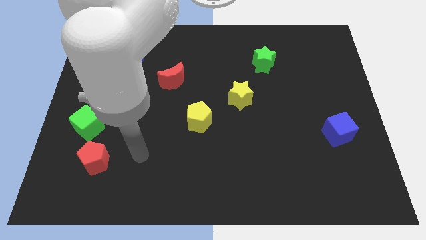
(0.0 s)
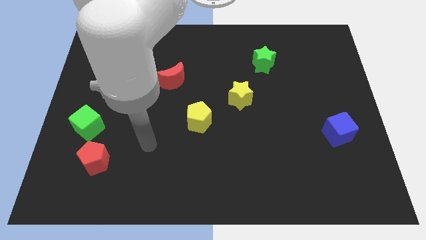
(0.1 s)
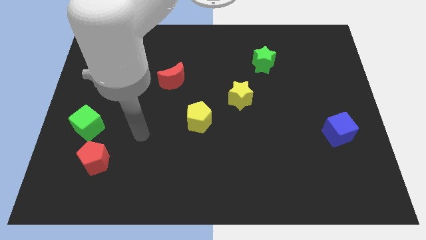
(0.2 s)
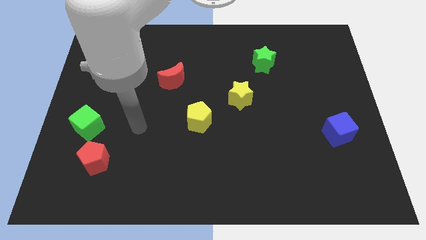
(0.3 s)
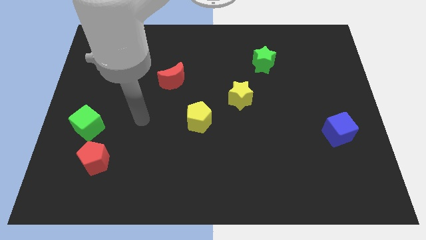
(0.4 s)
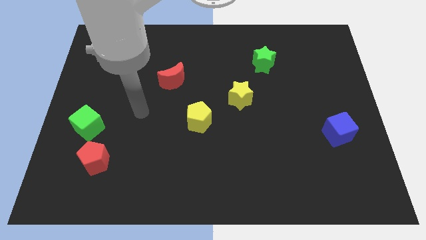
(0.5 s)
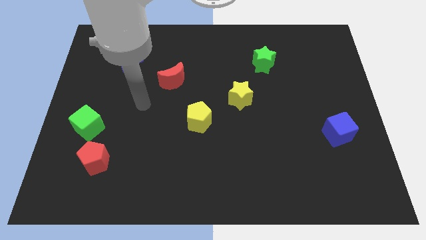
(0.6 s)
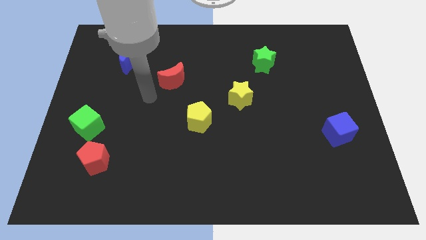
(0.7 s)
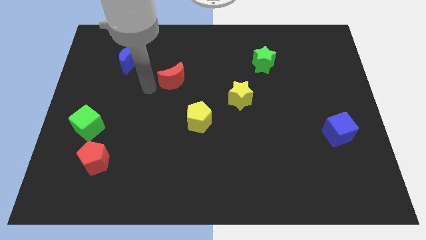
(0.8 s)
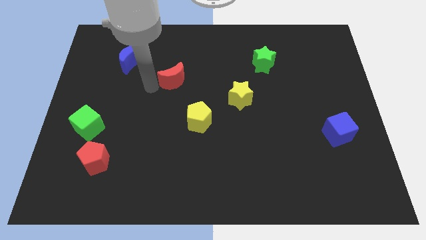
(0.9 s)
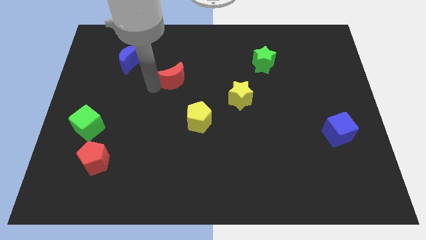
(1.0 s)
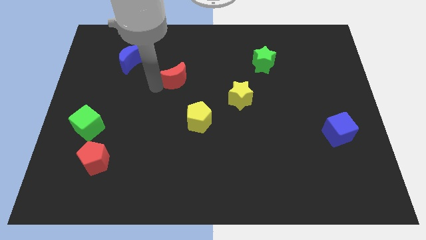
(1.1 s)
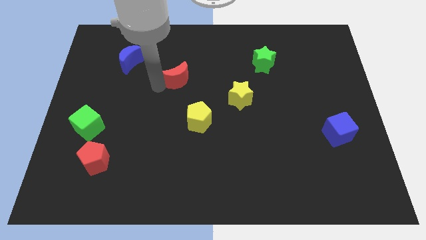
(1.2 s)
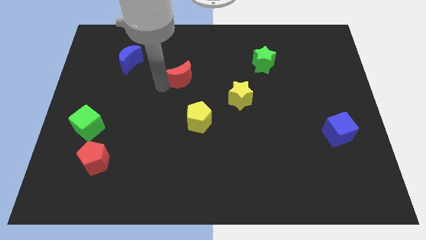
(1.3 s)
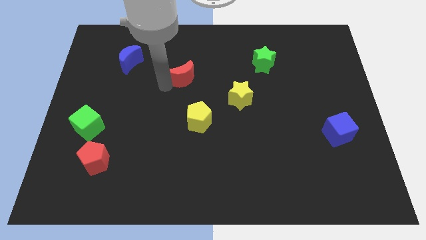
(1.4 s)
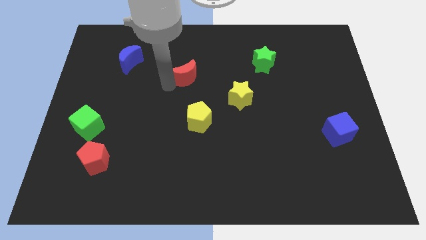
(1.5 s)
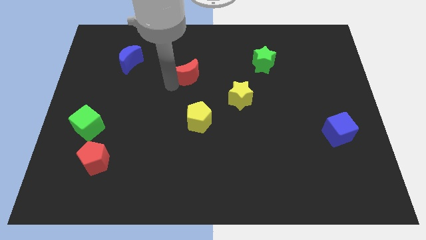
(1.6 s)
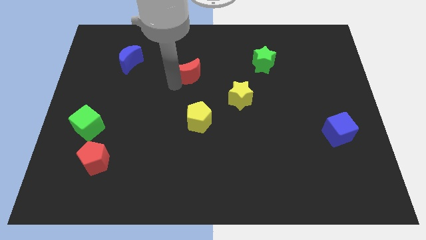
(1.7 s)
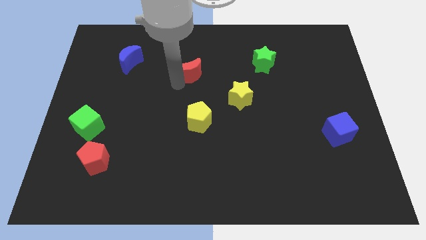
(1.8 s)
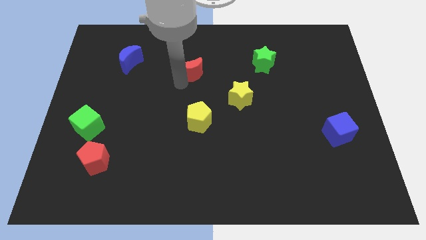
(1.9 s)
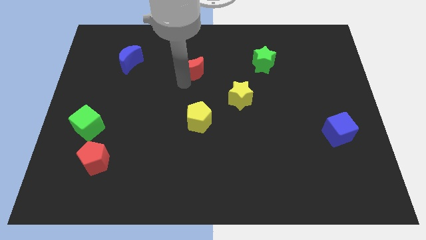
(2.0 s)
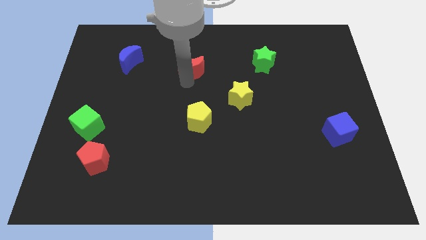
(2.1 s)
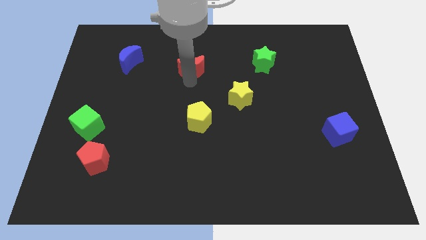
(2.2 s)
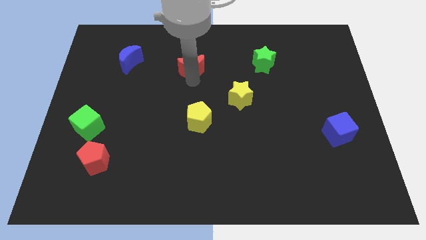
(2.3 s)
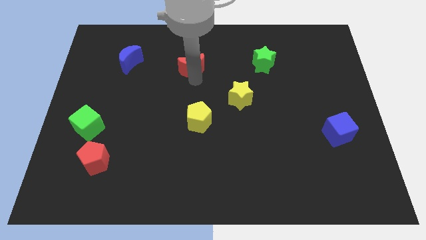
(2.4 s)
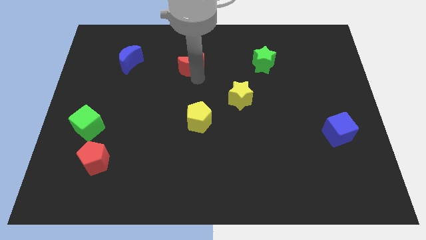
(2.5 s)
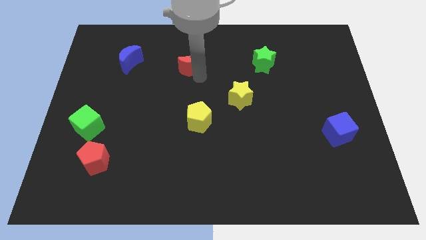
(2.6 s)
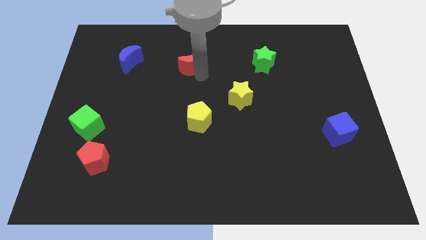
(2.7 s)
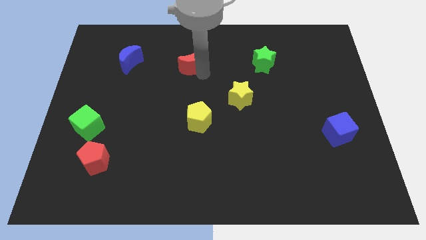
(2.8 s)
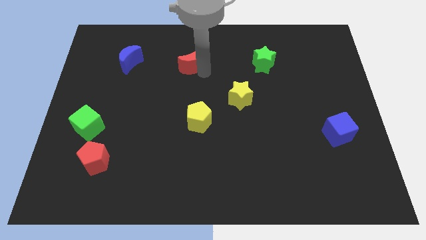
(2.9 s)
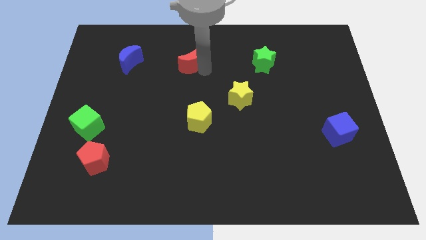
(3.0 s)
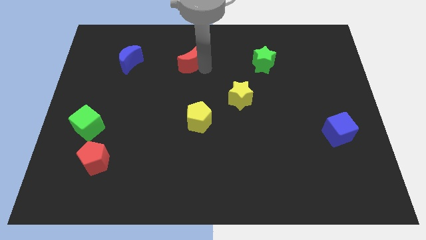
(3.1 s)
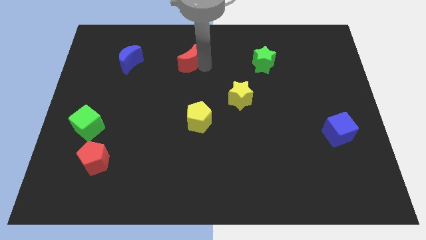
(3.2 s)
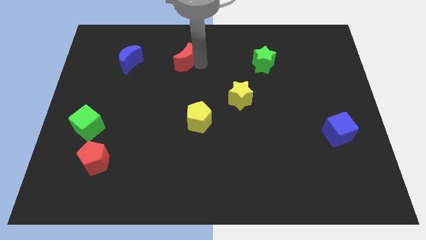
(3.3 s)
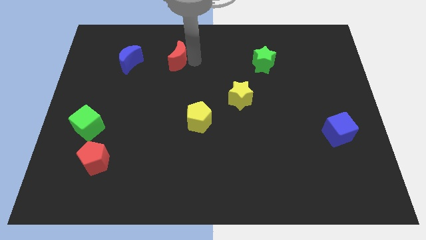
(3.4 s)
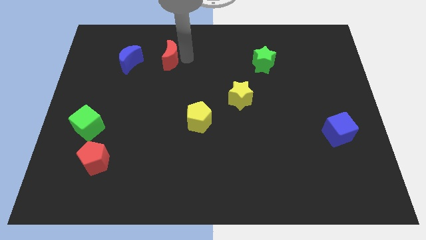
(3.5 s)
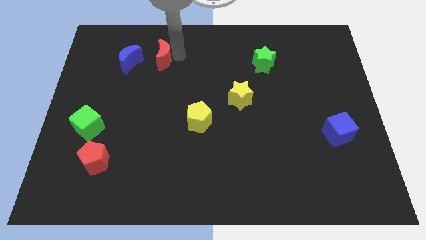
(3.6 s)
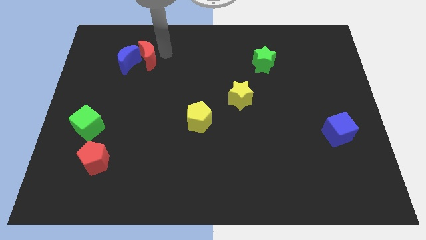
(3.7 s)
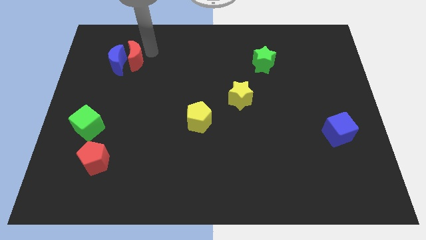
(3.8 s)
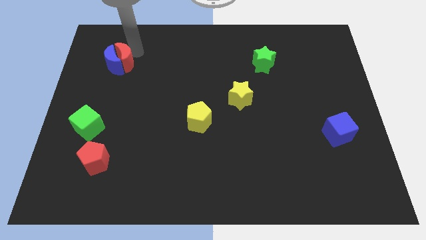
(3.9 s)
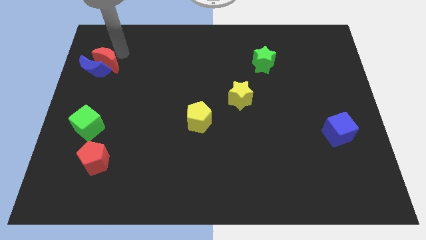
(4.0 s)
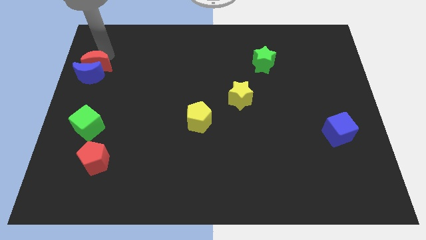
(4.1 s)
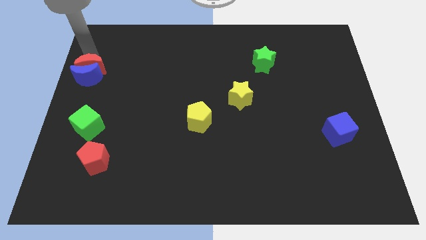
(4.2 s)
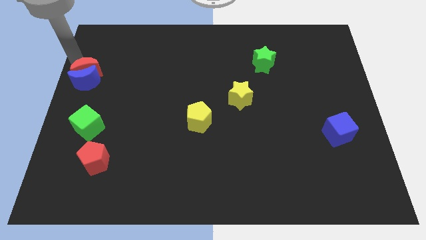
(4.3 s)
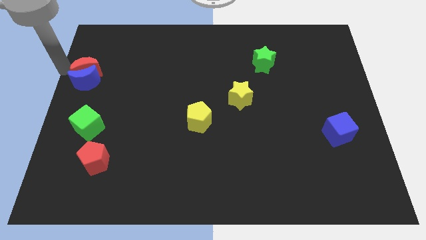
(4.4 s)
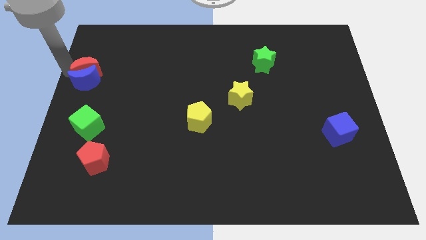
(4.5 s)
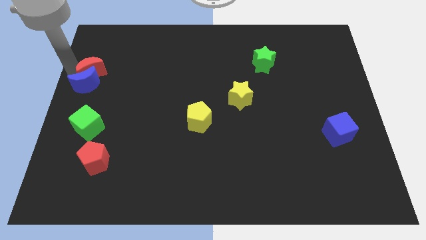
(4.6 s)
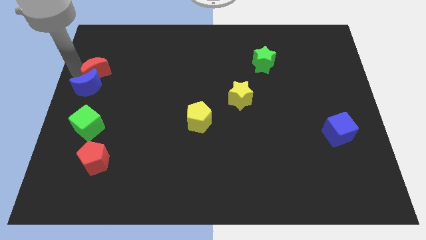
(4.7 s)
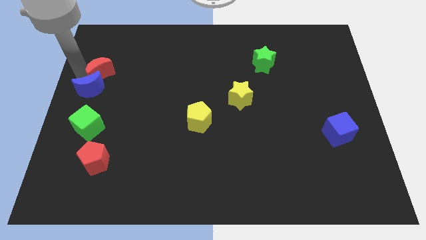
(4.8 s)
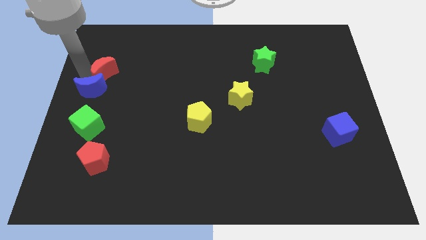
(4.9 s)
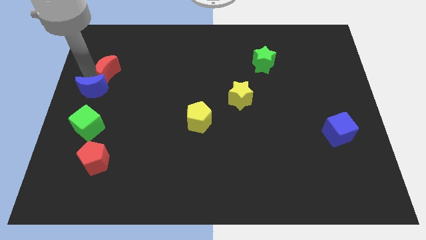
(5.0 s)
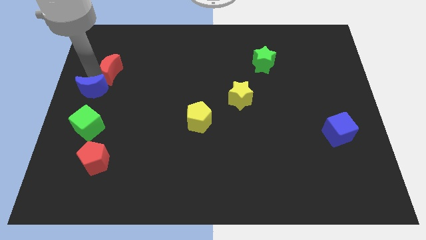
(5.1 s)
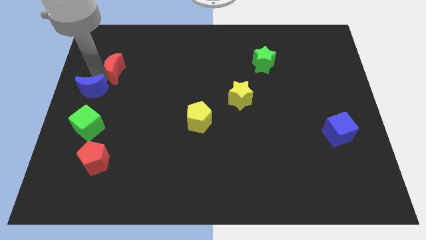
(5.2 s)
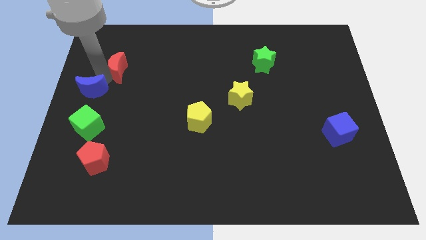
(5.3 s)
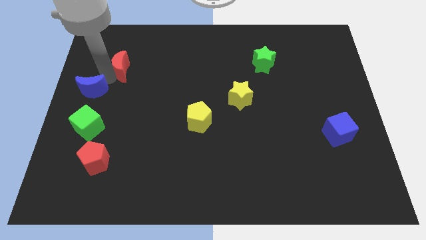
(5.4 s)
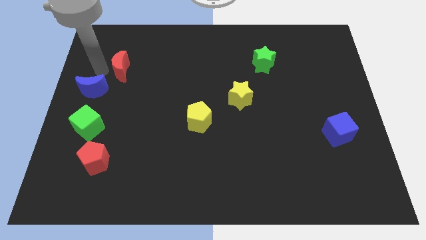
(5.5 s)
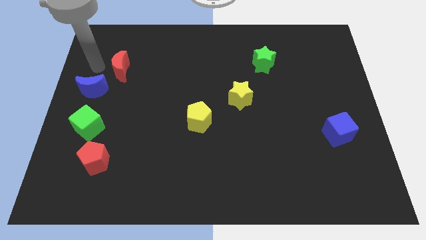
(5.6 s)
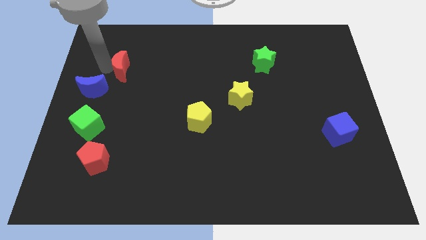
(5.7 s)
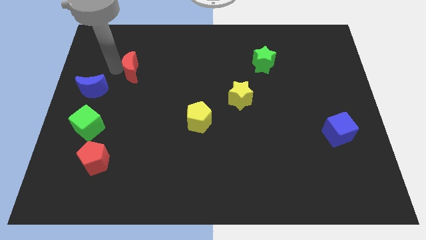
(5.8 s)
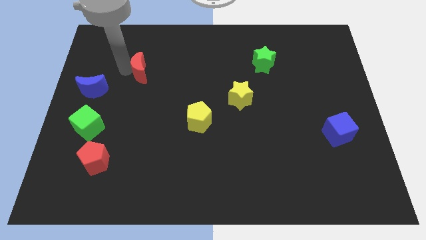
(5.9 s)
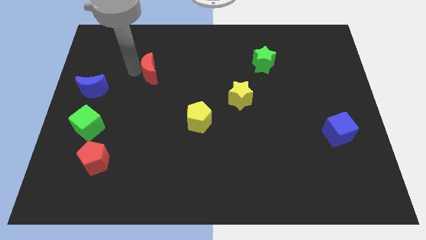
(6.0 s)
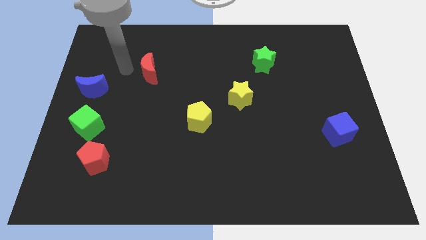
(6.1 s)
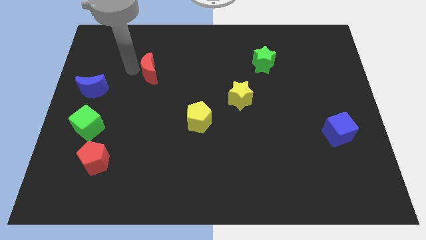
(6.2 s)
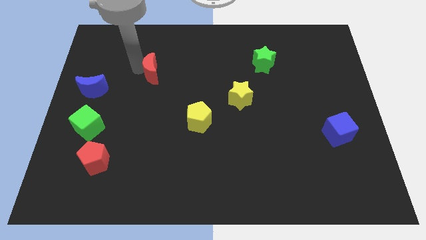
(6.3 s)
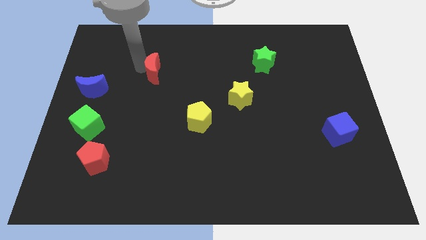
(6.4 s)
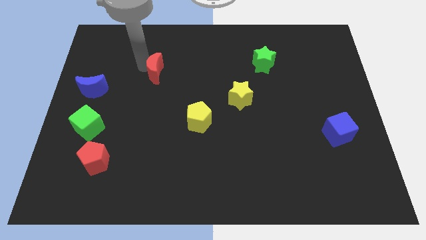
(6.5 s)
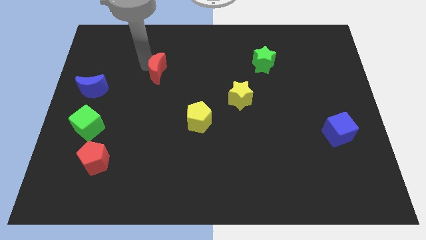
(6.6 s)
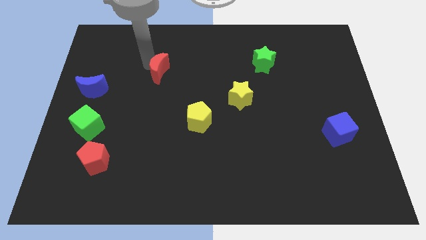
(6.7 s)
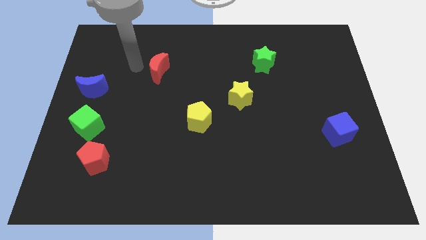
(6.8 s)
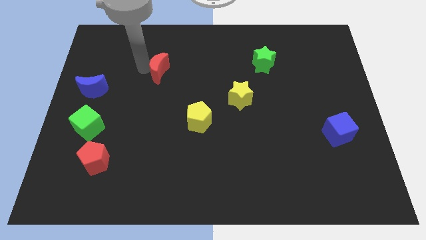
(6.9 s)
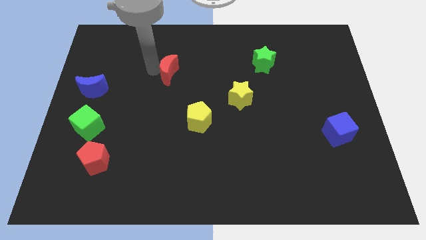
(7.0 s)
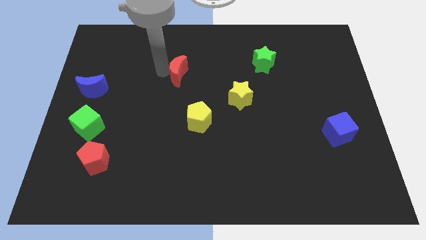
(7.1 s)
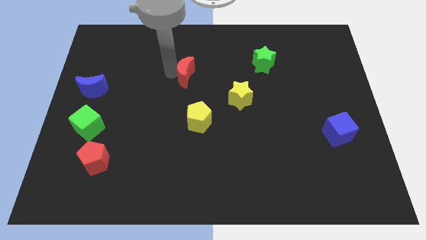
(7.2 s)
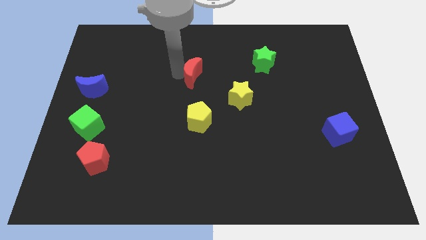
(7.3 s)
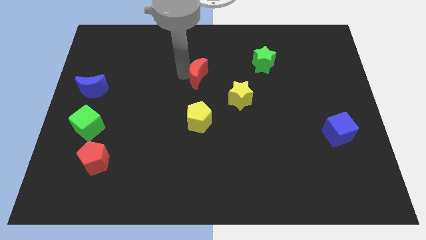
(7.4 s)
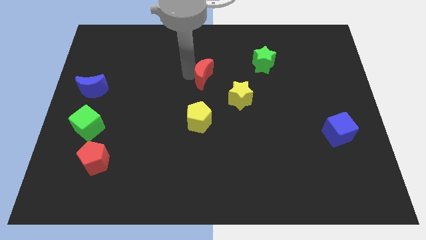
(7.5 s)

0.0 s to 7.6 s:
slightly move the red moon right

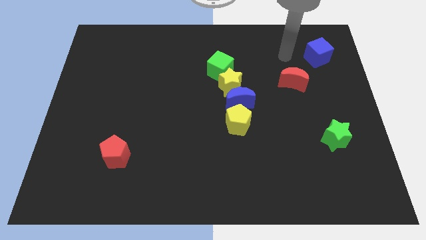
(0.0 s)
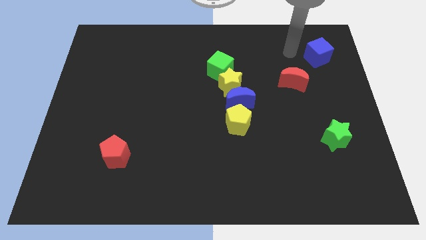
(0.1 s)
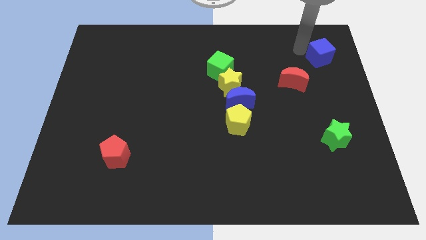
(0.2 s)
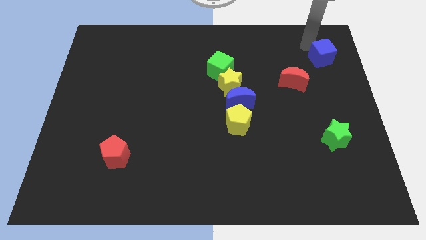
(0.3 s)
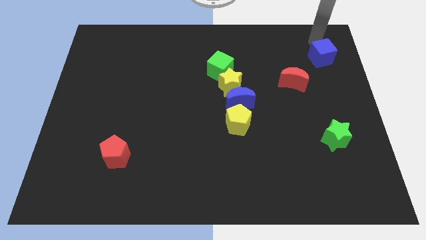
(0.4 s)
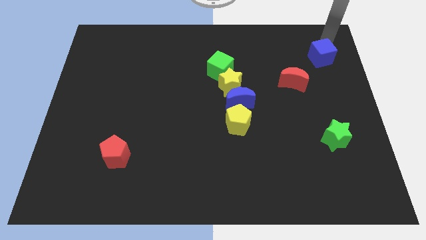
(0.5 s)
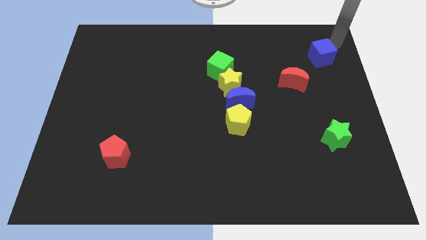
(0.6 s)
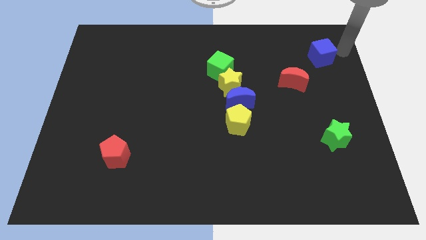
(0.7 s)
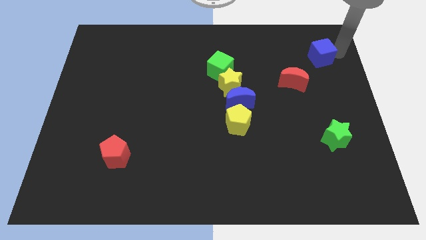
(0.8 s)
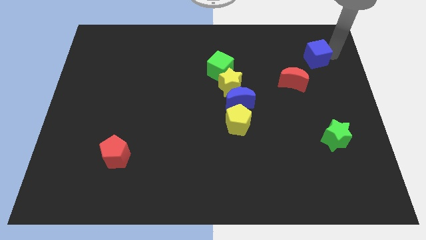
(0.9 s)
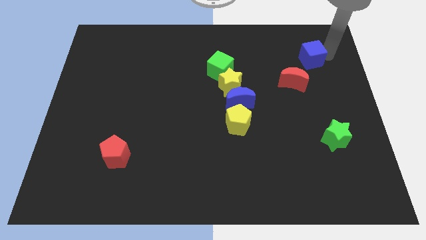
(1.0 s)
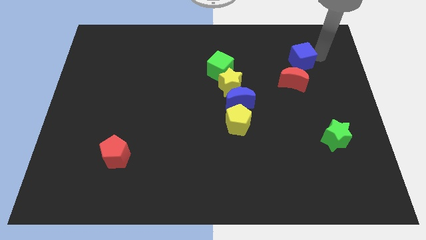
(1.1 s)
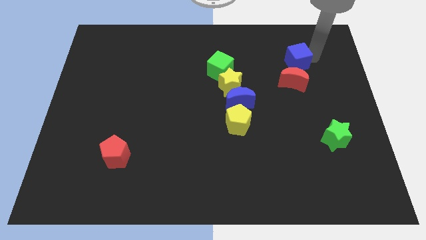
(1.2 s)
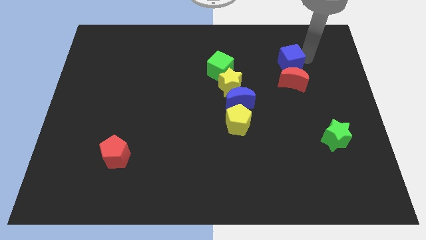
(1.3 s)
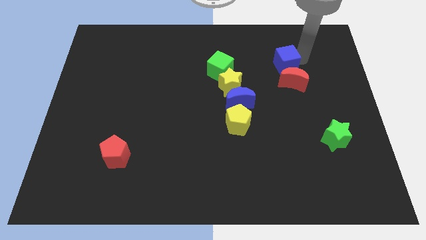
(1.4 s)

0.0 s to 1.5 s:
push the blue cube downwards and to the left a little
